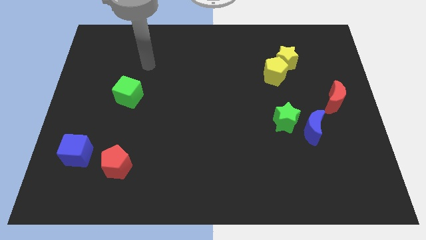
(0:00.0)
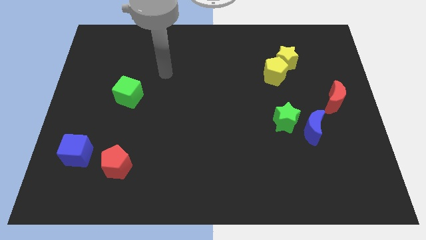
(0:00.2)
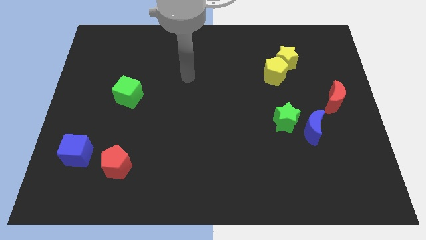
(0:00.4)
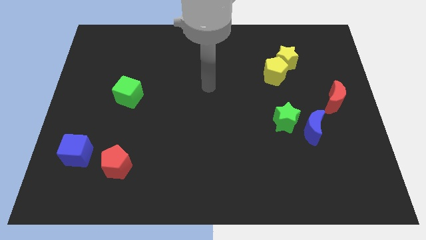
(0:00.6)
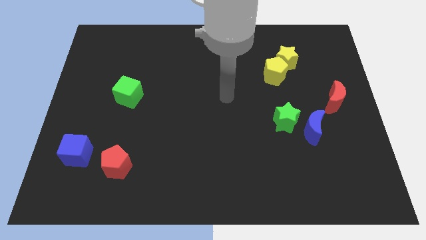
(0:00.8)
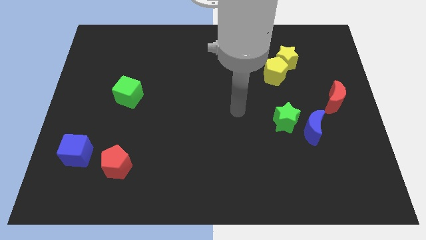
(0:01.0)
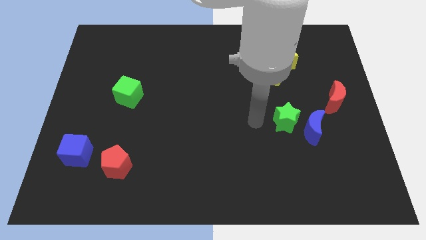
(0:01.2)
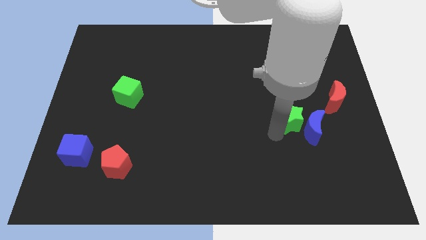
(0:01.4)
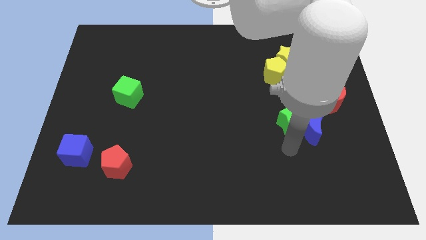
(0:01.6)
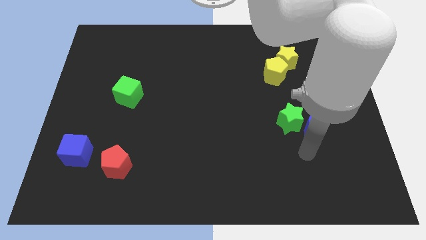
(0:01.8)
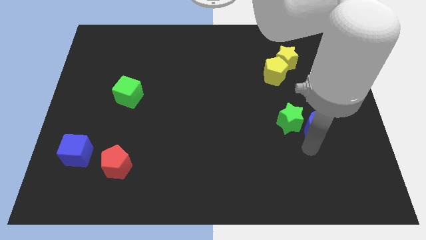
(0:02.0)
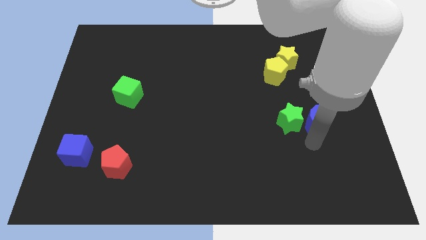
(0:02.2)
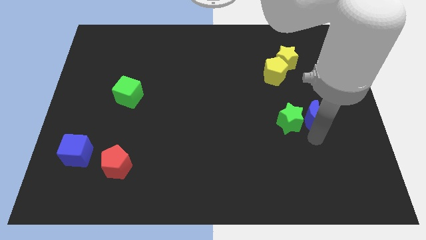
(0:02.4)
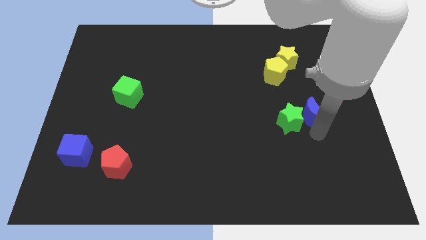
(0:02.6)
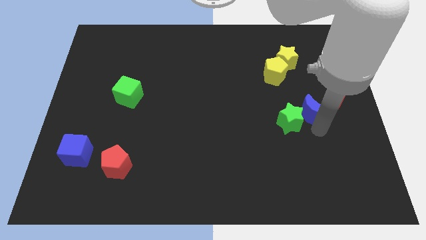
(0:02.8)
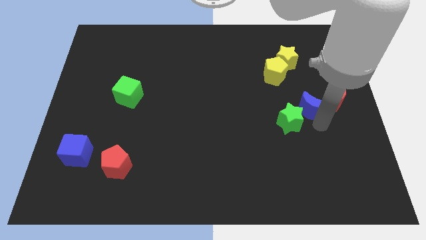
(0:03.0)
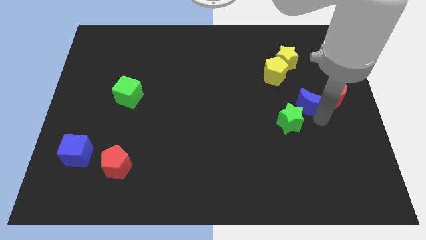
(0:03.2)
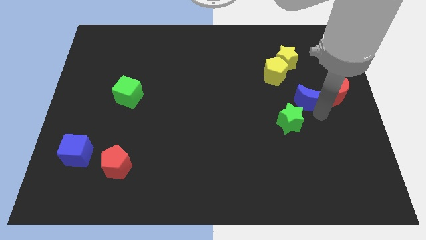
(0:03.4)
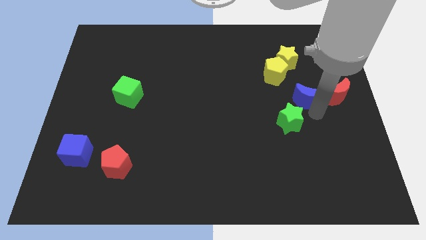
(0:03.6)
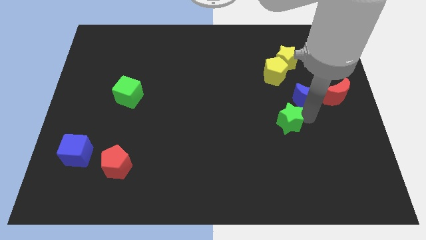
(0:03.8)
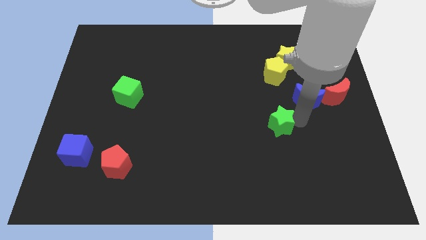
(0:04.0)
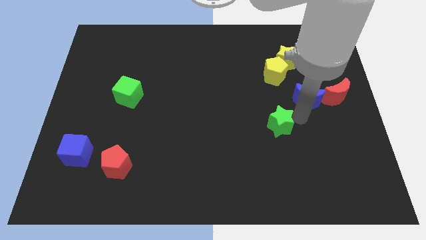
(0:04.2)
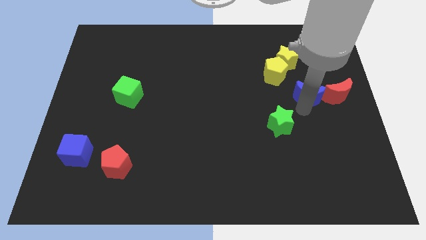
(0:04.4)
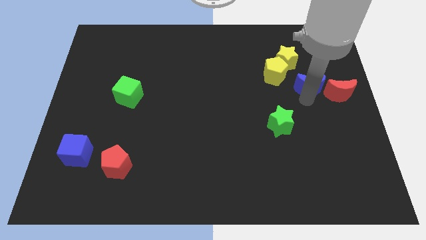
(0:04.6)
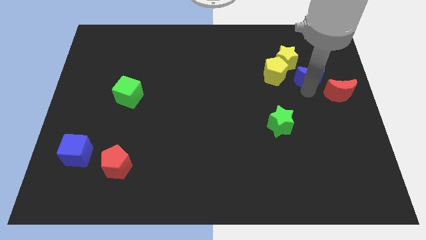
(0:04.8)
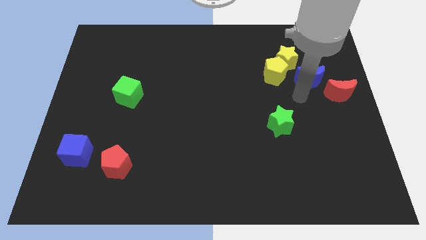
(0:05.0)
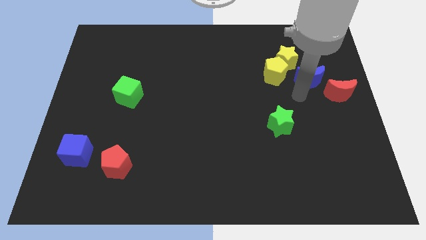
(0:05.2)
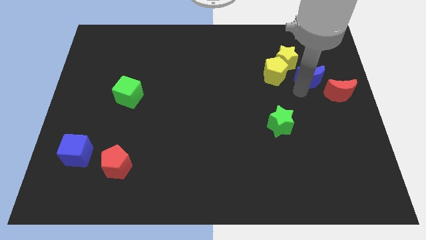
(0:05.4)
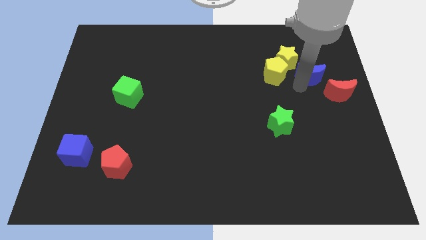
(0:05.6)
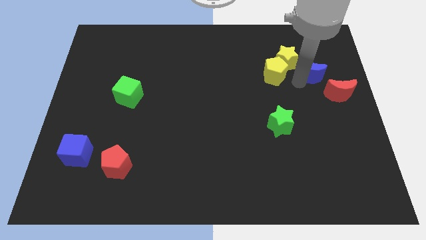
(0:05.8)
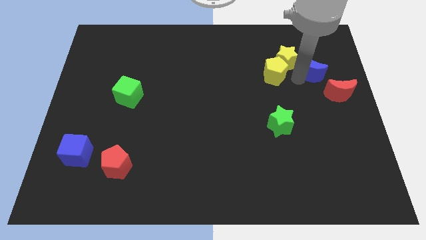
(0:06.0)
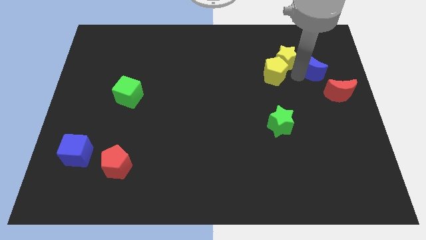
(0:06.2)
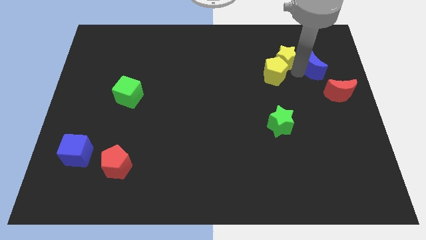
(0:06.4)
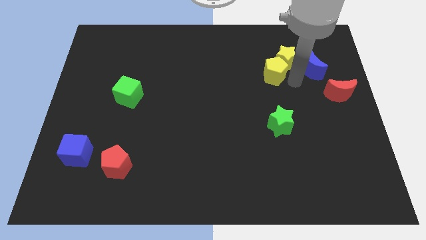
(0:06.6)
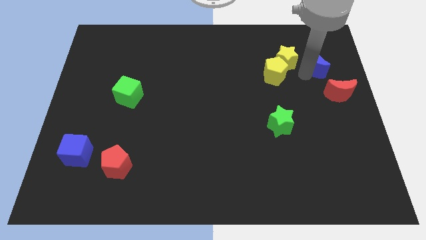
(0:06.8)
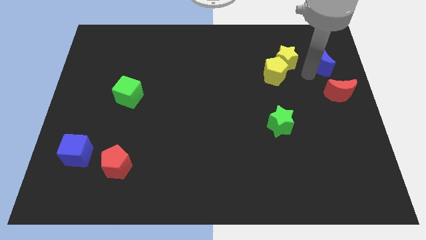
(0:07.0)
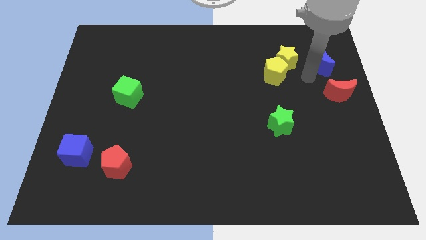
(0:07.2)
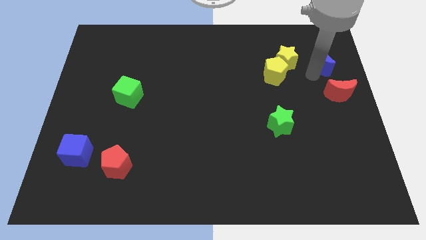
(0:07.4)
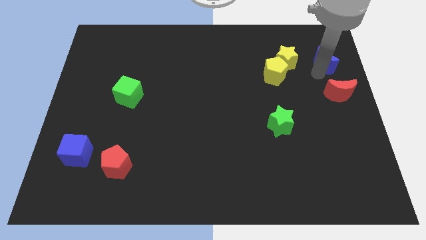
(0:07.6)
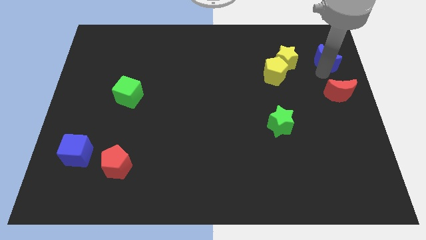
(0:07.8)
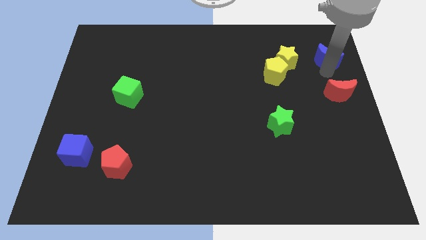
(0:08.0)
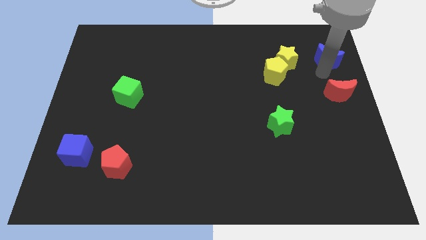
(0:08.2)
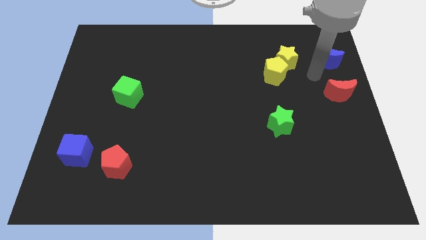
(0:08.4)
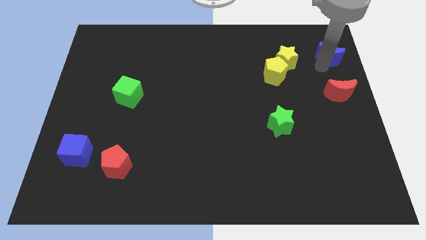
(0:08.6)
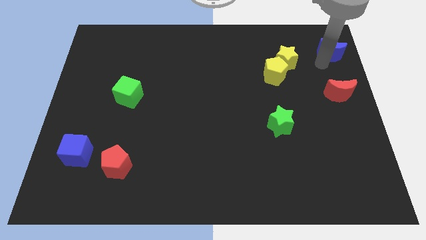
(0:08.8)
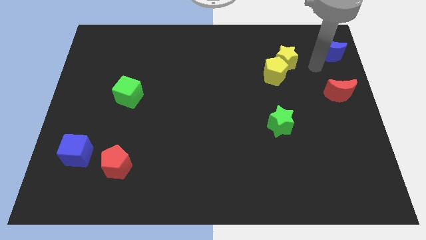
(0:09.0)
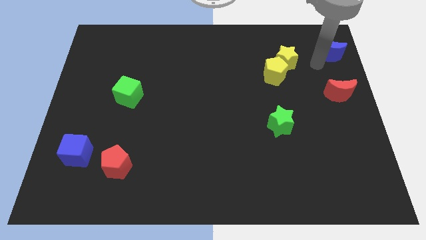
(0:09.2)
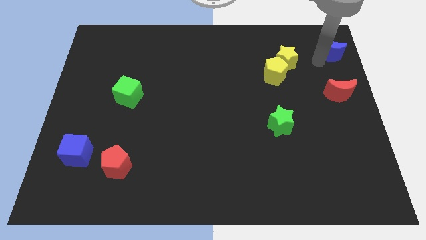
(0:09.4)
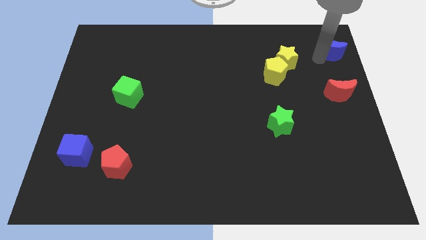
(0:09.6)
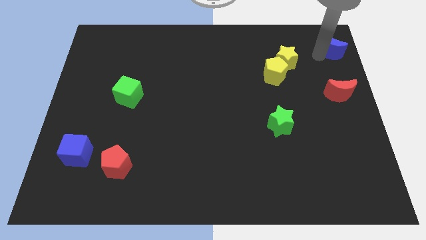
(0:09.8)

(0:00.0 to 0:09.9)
slide the blue moon to the top right corner

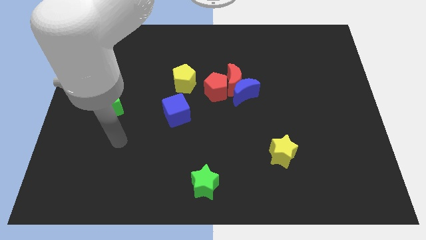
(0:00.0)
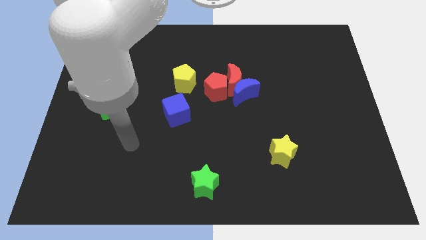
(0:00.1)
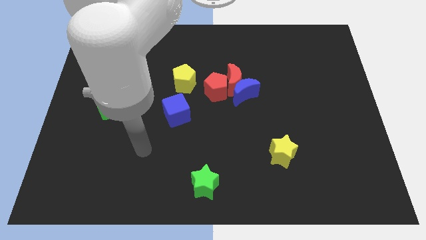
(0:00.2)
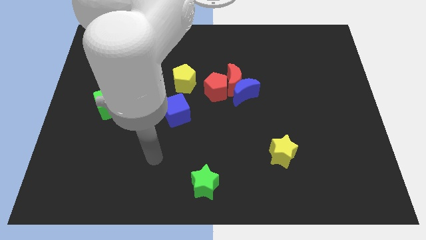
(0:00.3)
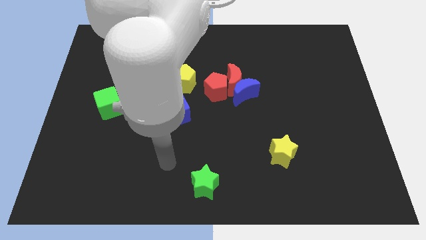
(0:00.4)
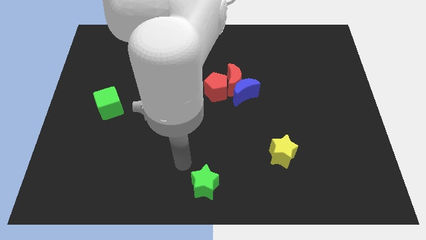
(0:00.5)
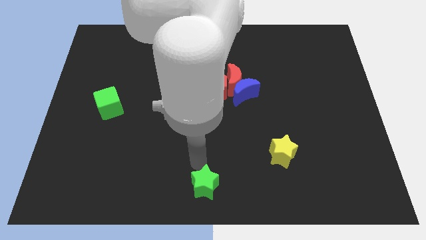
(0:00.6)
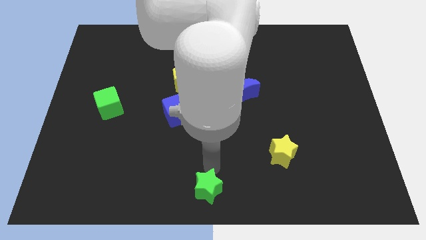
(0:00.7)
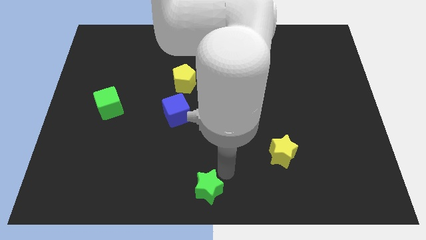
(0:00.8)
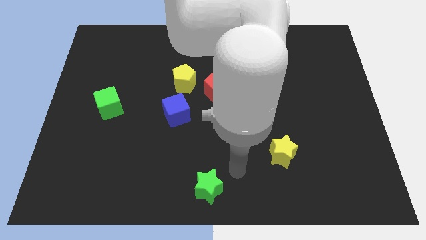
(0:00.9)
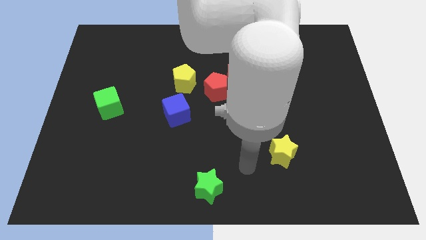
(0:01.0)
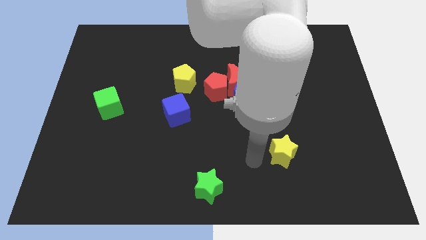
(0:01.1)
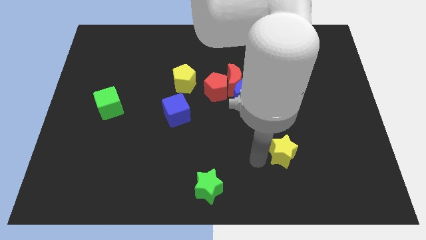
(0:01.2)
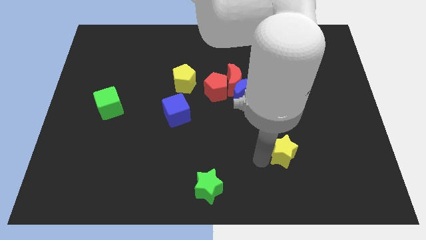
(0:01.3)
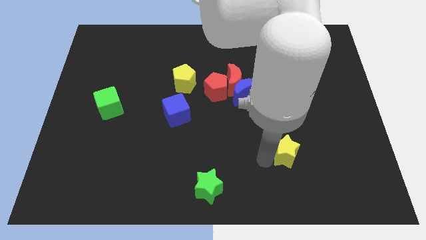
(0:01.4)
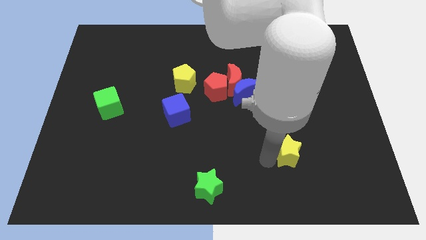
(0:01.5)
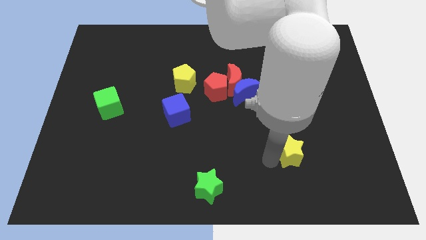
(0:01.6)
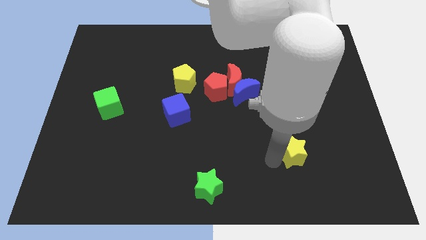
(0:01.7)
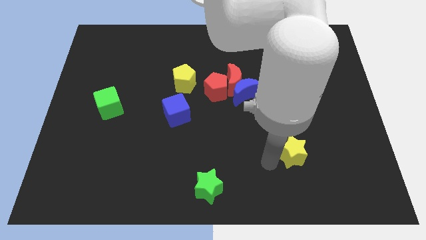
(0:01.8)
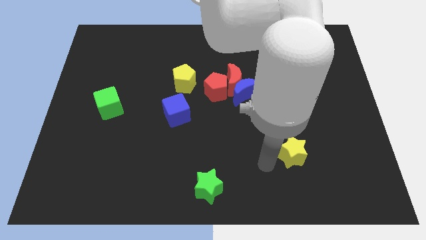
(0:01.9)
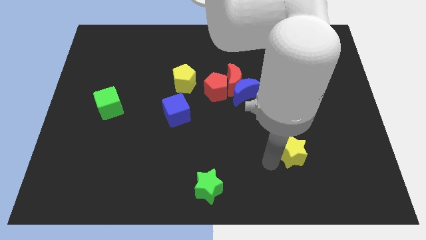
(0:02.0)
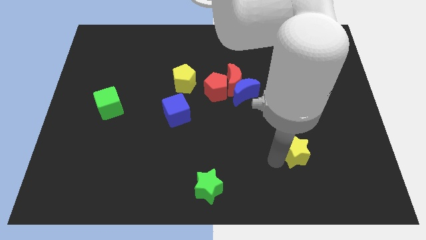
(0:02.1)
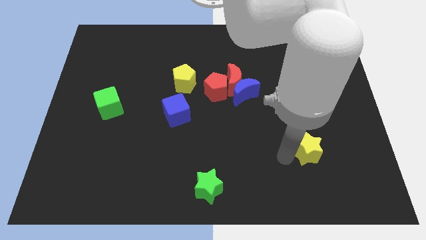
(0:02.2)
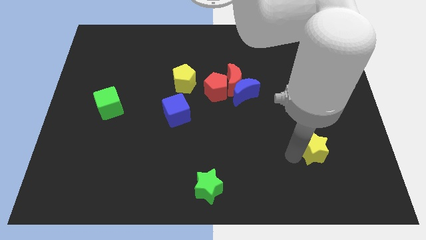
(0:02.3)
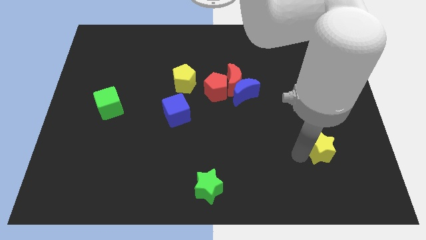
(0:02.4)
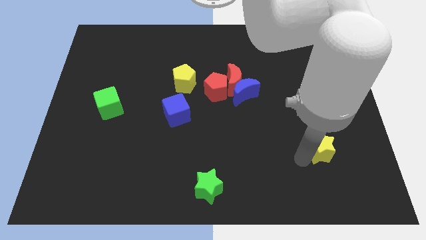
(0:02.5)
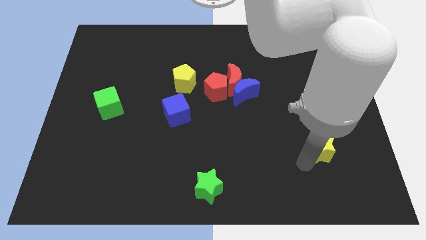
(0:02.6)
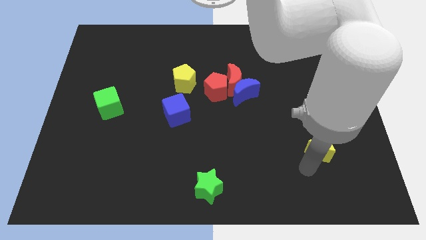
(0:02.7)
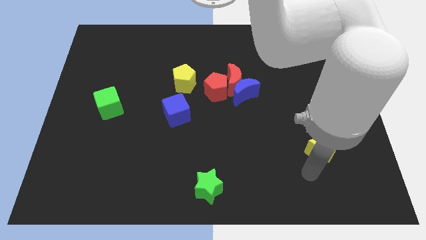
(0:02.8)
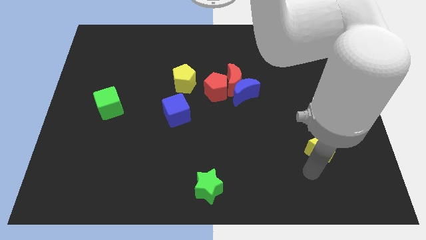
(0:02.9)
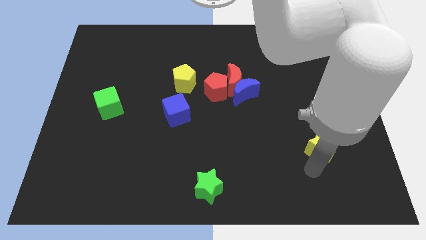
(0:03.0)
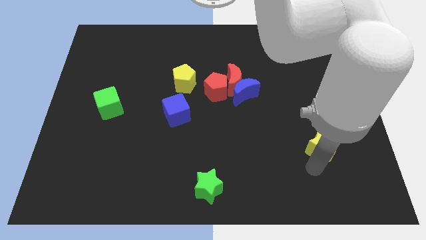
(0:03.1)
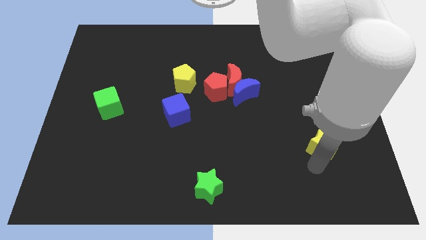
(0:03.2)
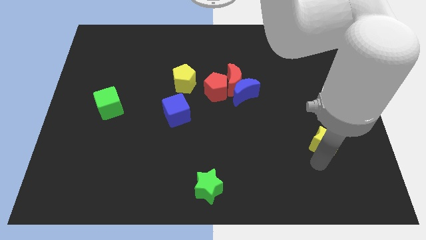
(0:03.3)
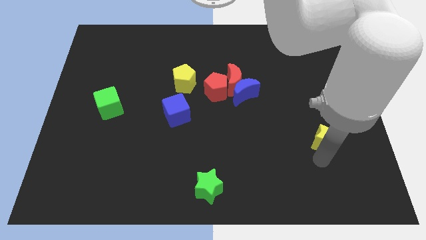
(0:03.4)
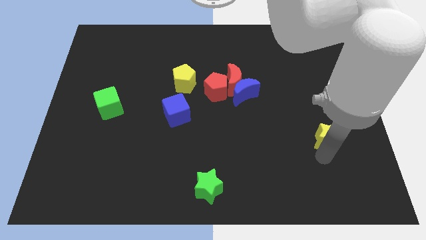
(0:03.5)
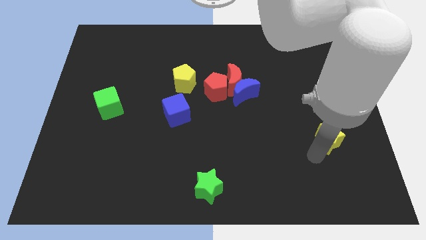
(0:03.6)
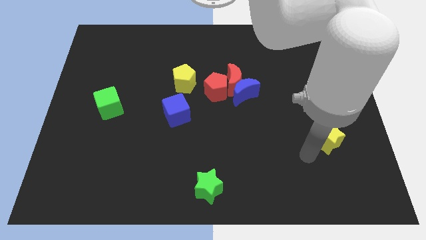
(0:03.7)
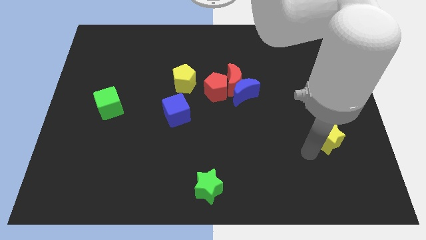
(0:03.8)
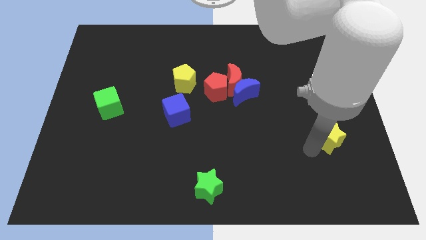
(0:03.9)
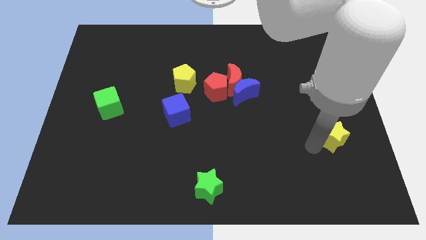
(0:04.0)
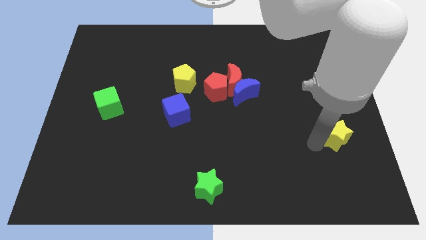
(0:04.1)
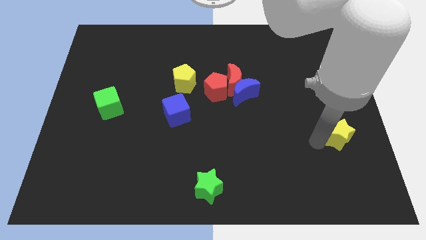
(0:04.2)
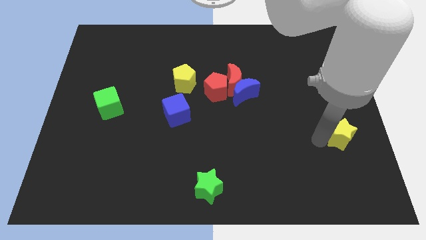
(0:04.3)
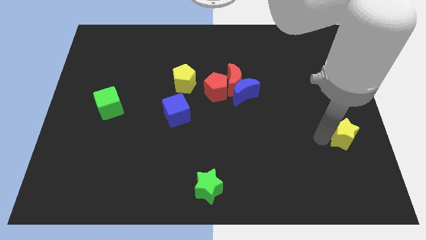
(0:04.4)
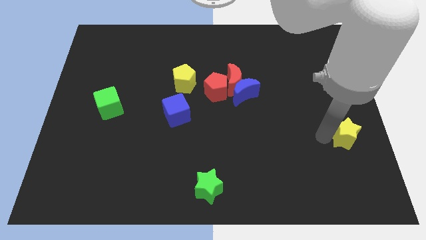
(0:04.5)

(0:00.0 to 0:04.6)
put the yellow star to the right side
